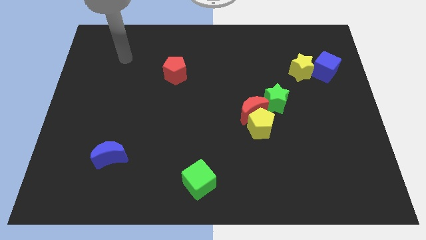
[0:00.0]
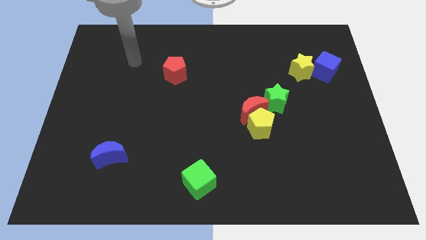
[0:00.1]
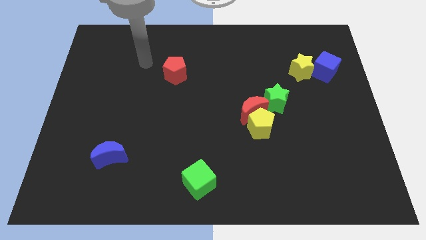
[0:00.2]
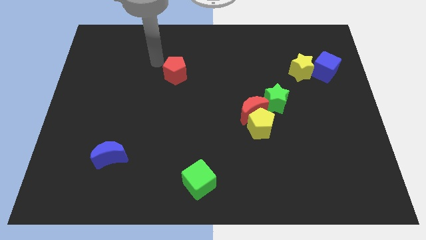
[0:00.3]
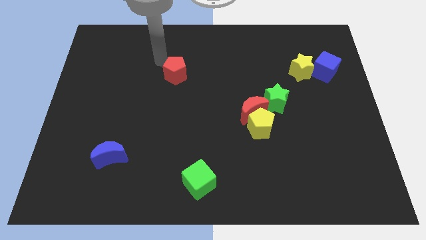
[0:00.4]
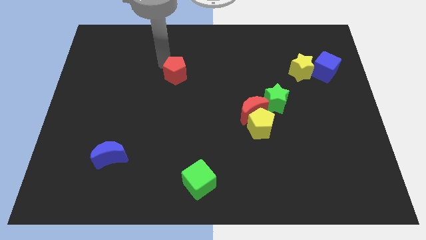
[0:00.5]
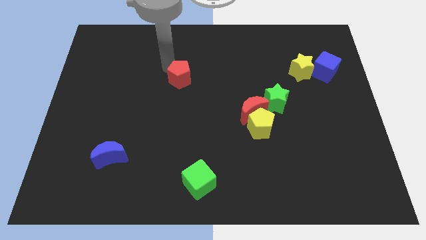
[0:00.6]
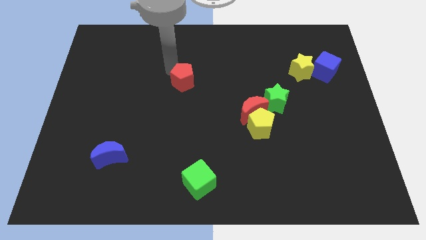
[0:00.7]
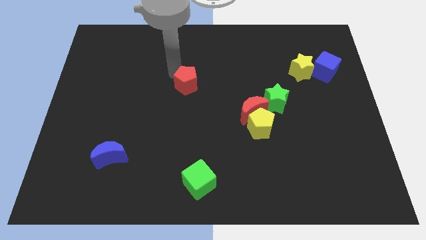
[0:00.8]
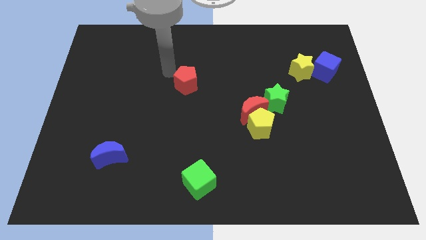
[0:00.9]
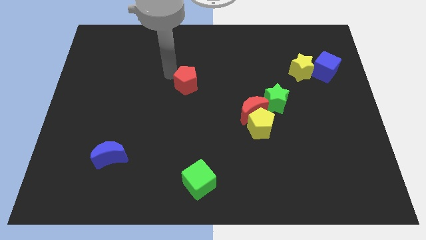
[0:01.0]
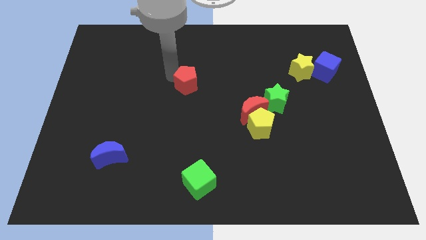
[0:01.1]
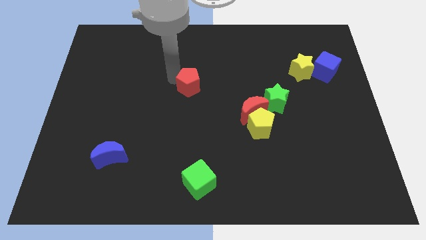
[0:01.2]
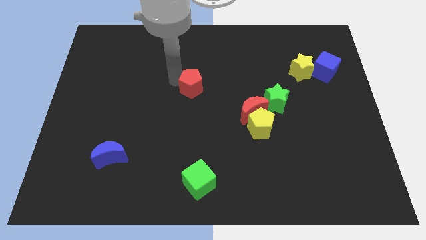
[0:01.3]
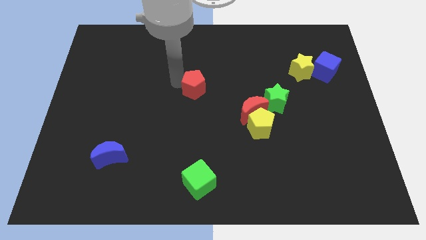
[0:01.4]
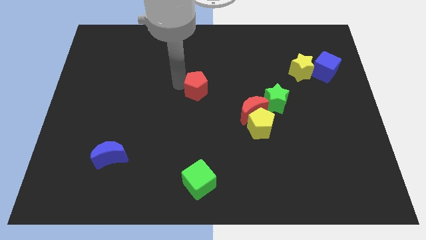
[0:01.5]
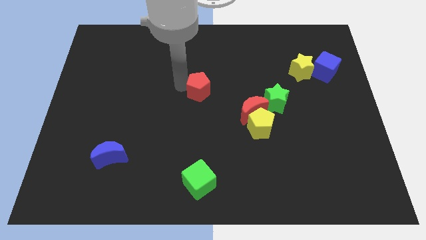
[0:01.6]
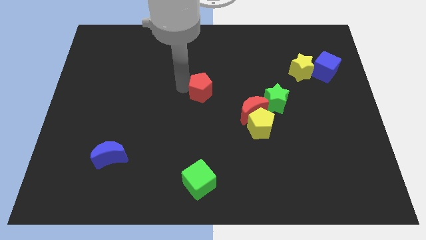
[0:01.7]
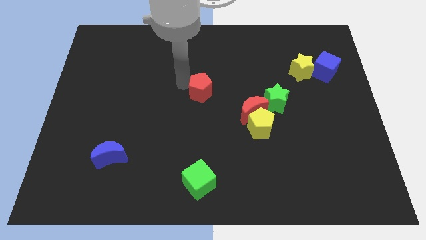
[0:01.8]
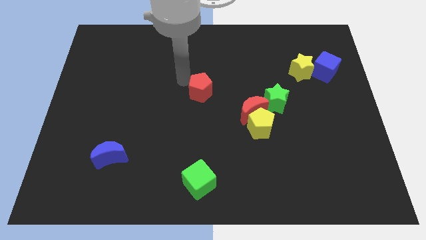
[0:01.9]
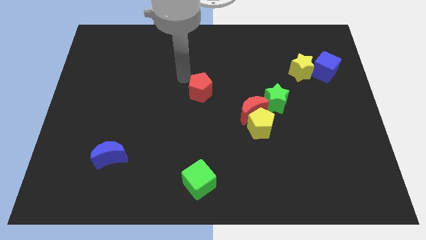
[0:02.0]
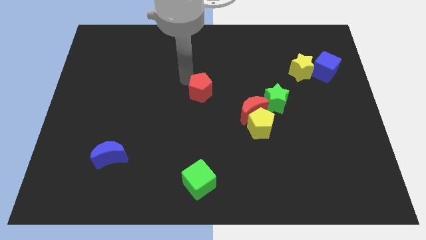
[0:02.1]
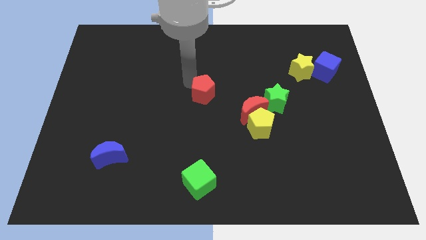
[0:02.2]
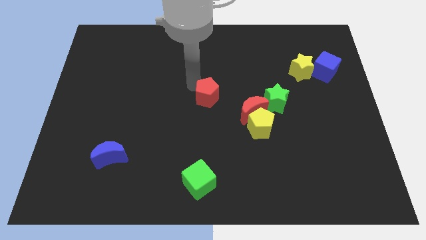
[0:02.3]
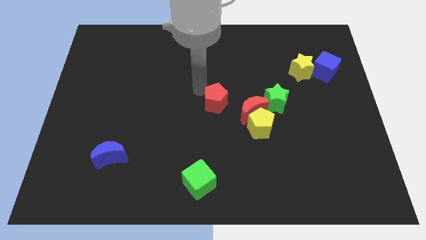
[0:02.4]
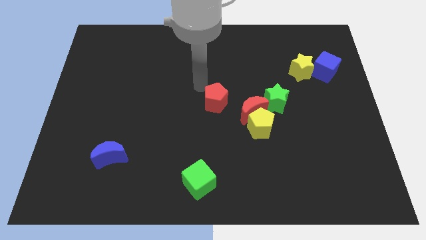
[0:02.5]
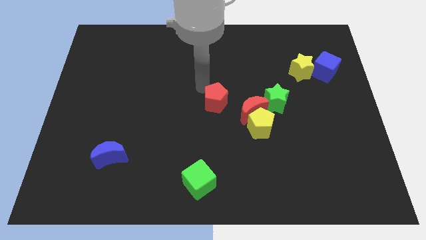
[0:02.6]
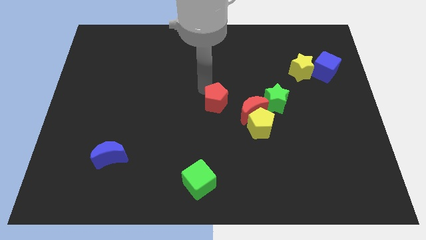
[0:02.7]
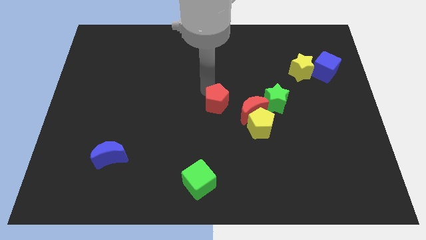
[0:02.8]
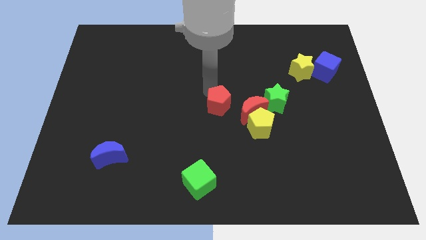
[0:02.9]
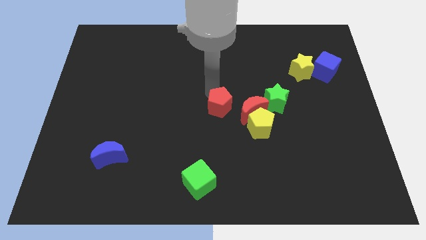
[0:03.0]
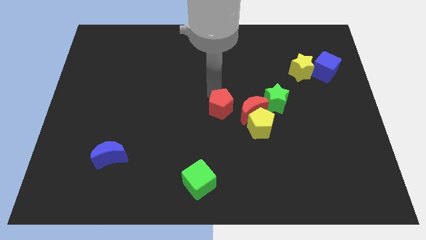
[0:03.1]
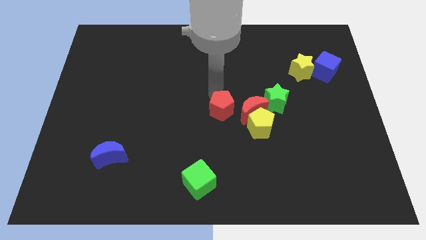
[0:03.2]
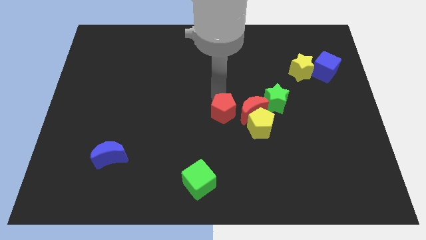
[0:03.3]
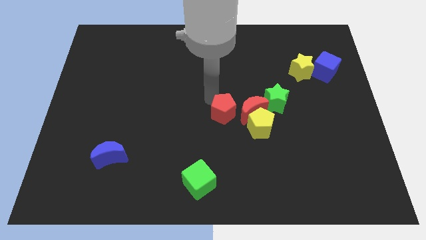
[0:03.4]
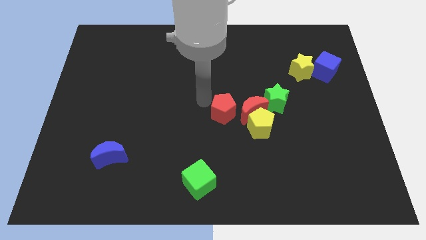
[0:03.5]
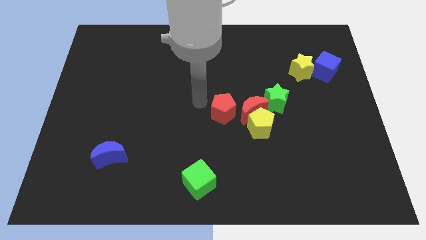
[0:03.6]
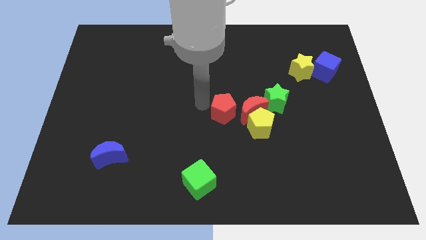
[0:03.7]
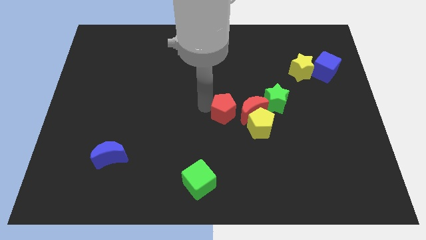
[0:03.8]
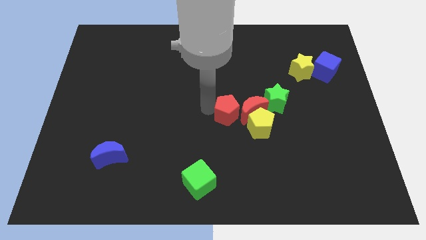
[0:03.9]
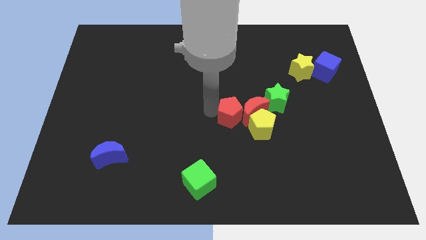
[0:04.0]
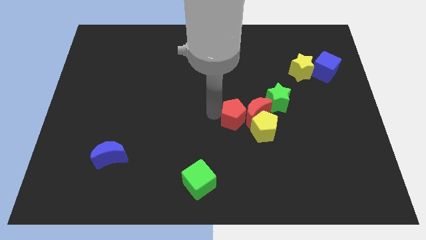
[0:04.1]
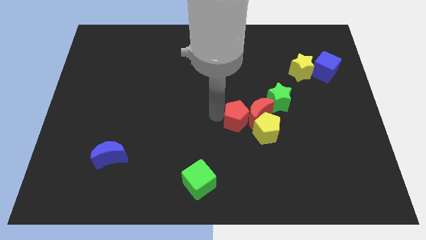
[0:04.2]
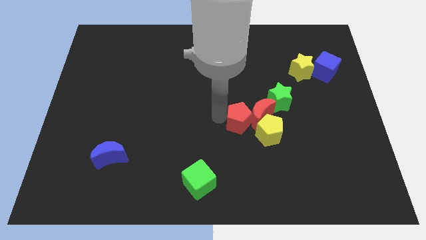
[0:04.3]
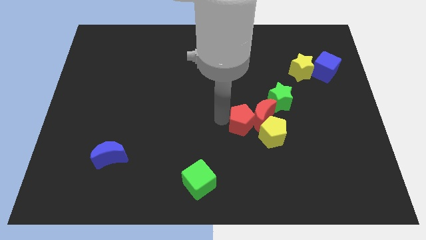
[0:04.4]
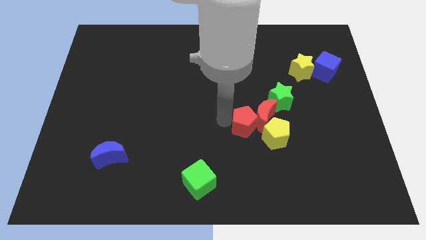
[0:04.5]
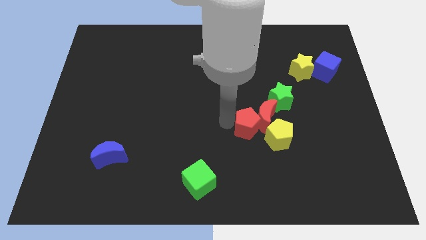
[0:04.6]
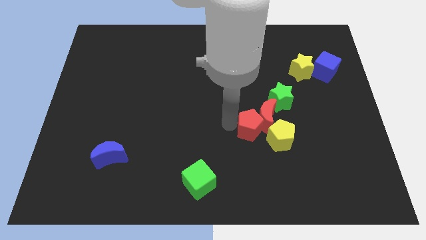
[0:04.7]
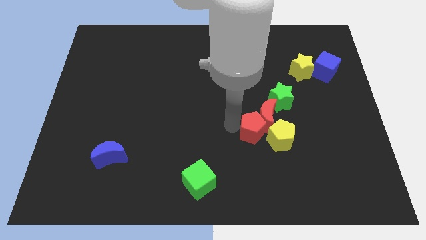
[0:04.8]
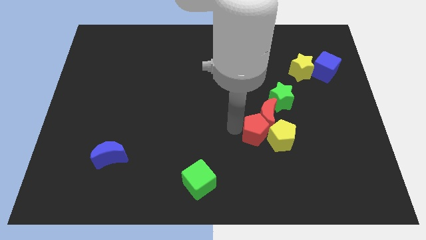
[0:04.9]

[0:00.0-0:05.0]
put the red pentagon close to the yellow pentagon

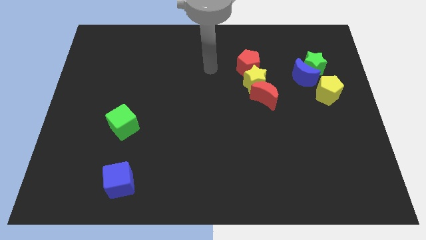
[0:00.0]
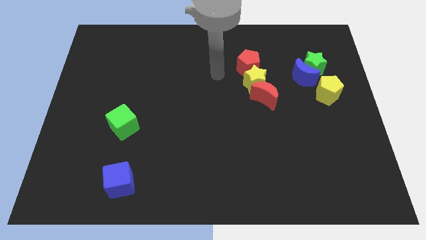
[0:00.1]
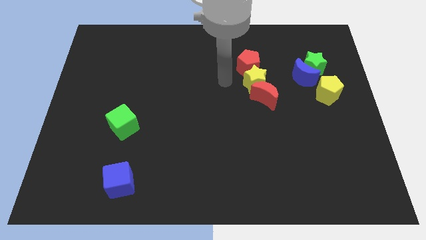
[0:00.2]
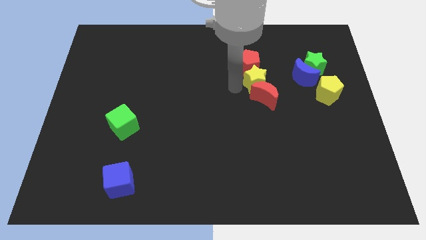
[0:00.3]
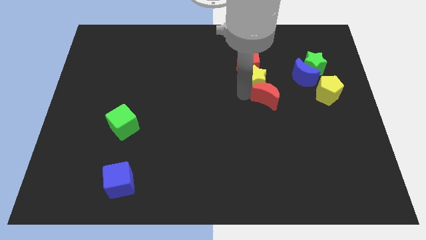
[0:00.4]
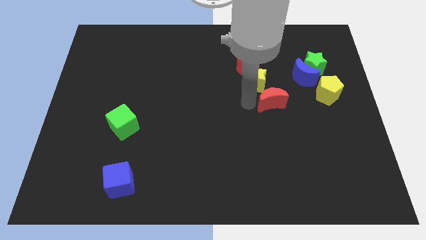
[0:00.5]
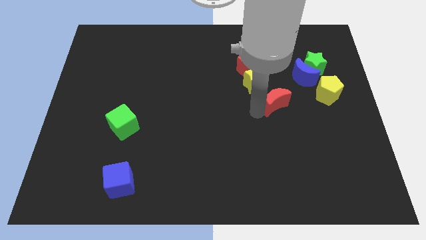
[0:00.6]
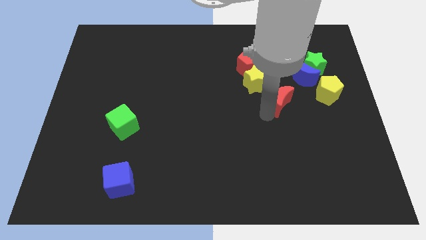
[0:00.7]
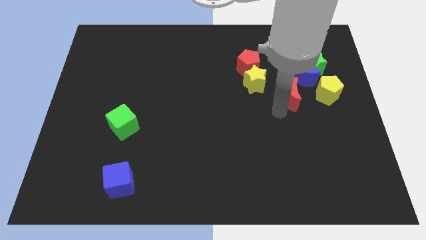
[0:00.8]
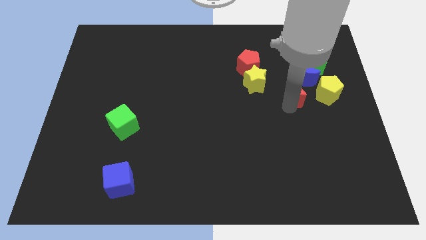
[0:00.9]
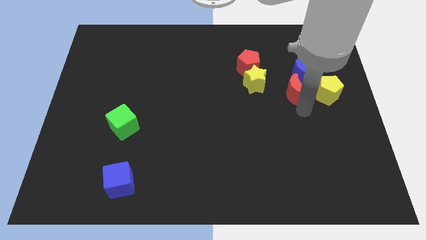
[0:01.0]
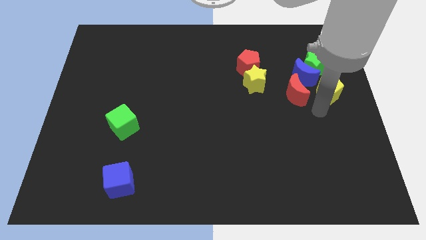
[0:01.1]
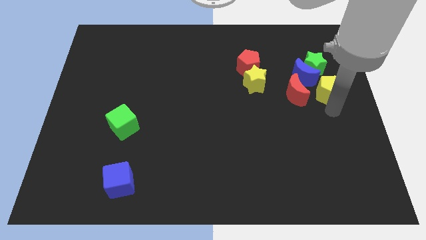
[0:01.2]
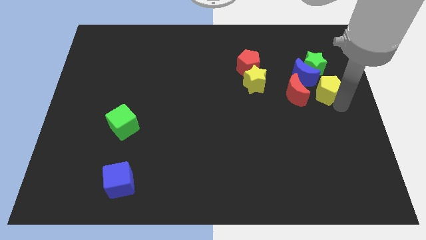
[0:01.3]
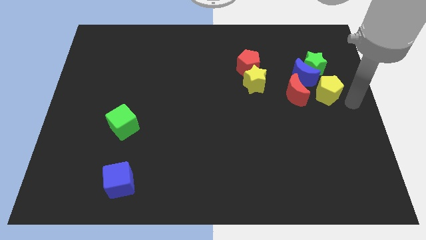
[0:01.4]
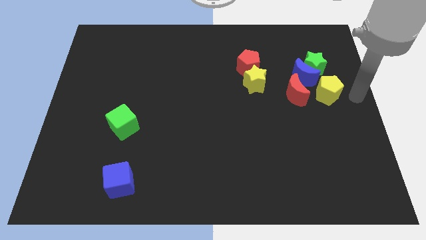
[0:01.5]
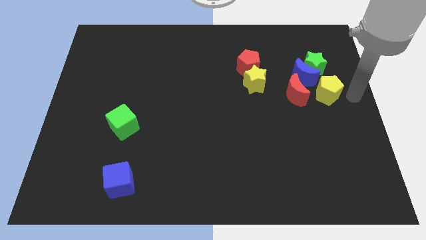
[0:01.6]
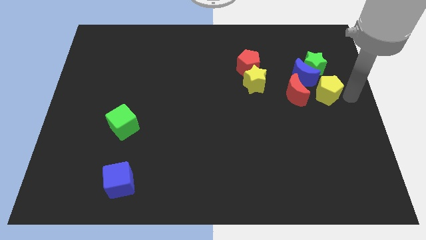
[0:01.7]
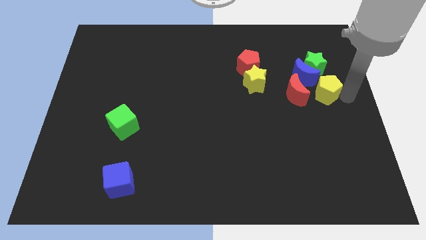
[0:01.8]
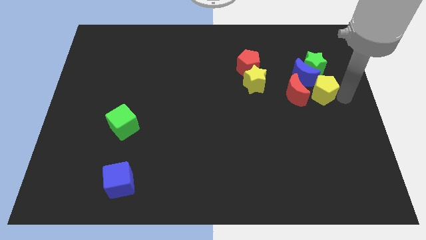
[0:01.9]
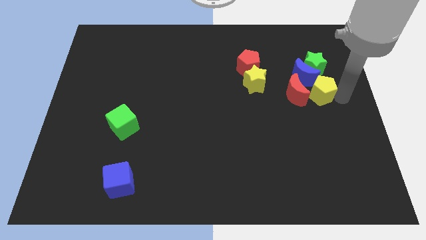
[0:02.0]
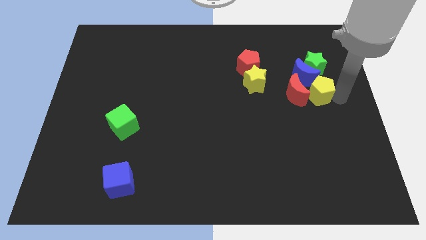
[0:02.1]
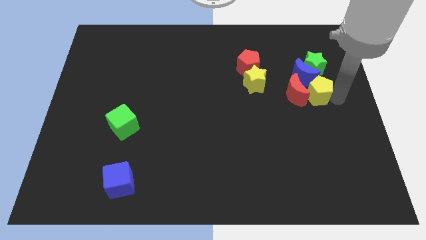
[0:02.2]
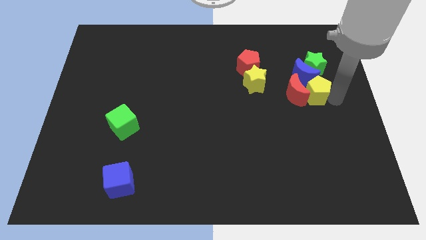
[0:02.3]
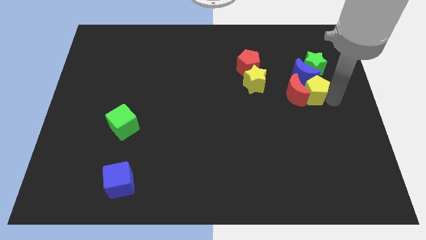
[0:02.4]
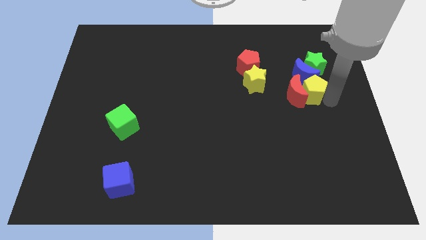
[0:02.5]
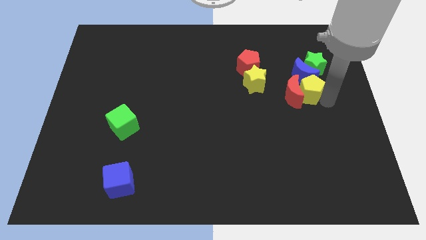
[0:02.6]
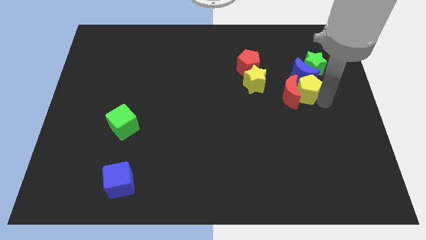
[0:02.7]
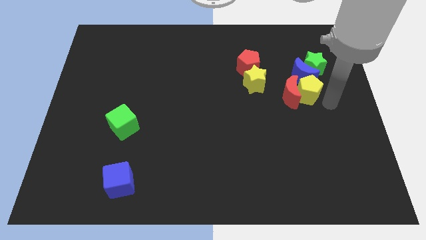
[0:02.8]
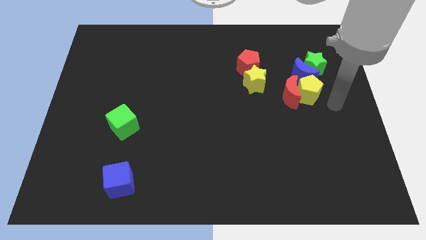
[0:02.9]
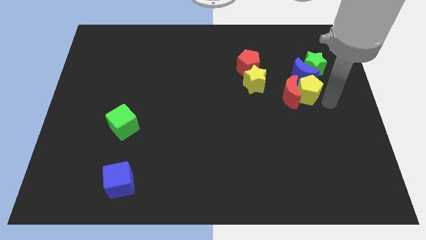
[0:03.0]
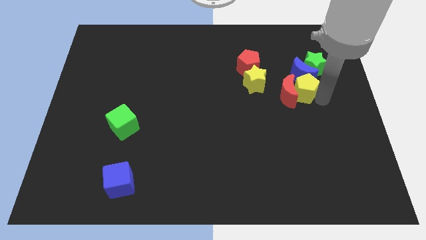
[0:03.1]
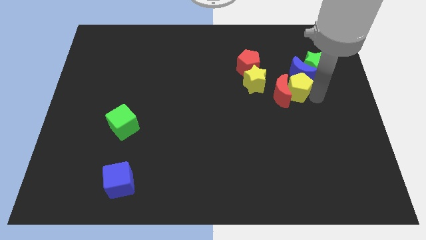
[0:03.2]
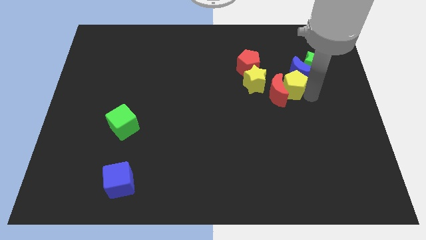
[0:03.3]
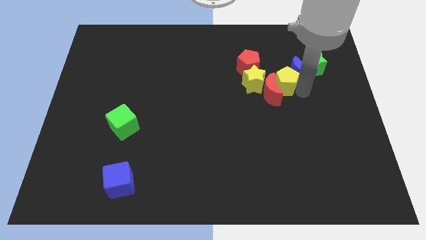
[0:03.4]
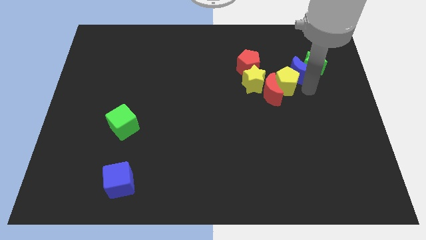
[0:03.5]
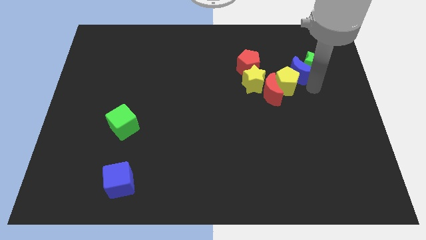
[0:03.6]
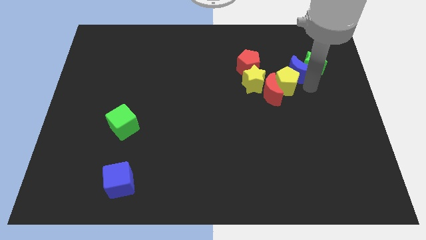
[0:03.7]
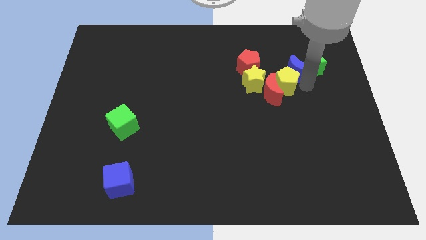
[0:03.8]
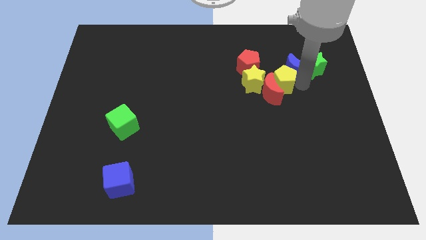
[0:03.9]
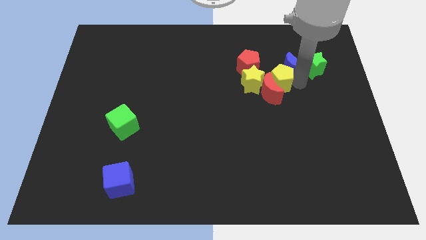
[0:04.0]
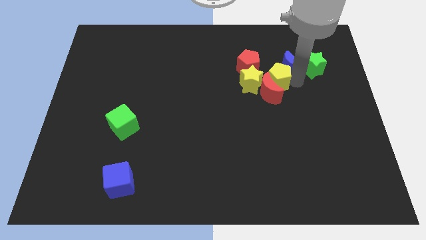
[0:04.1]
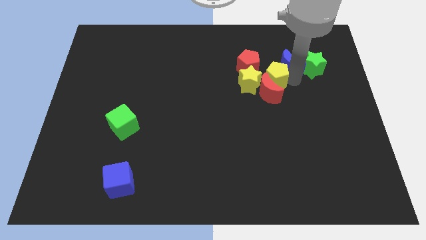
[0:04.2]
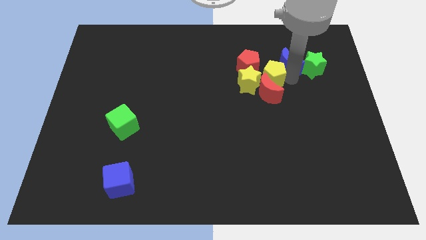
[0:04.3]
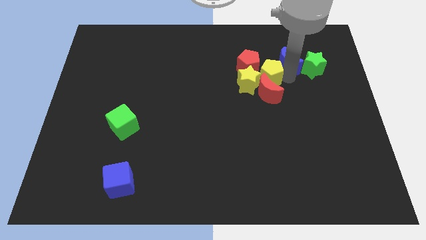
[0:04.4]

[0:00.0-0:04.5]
push the yellow pentagon close to the yellow star
